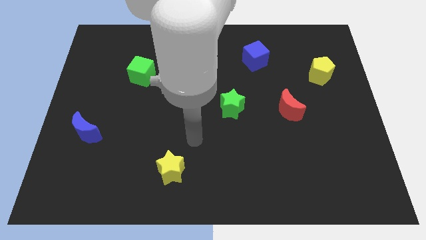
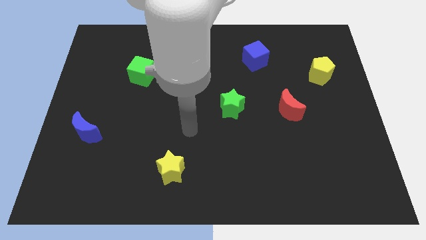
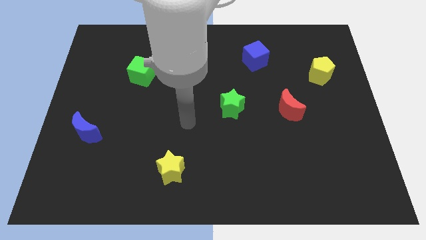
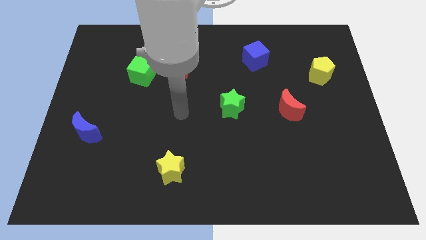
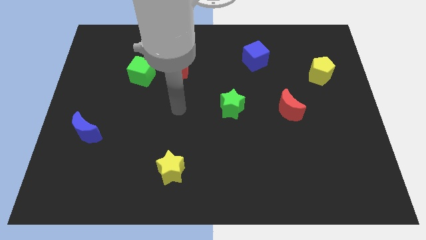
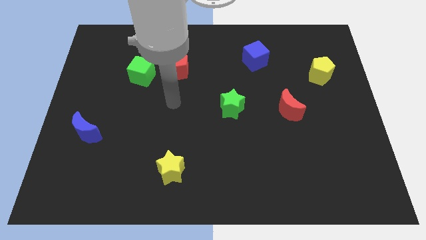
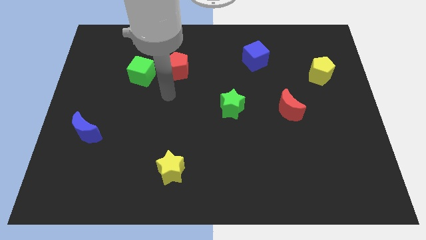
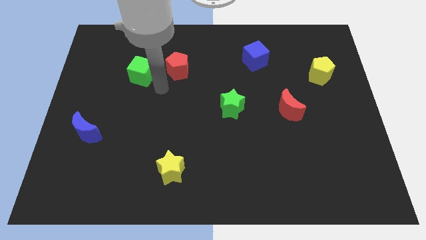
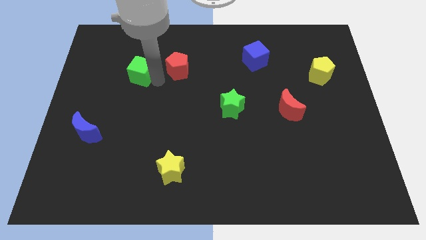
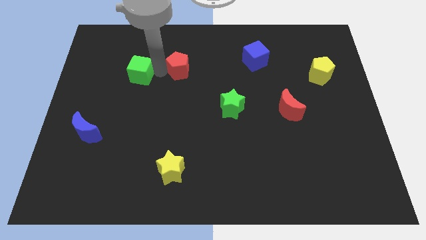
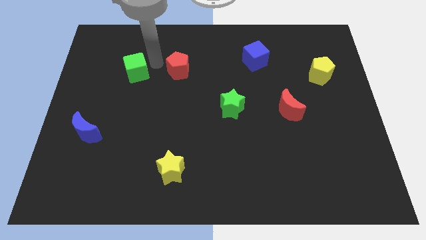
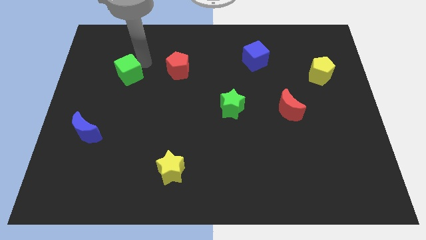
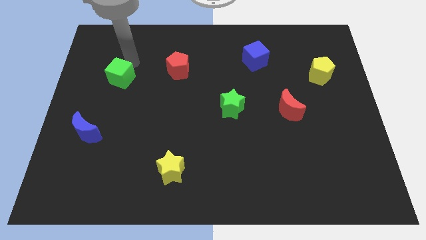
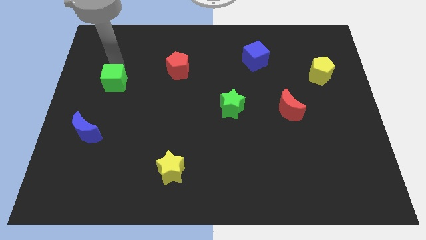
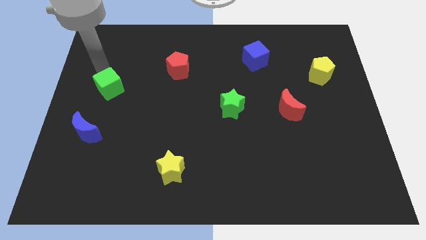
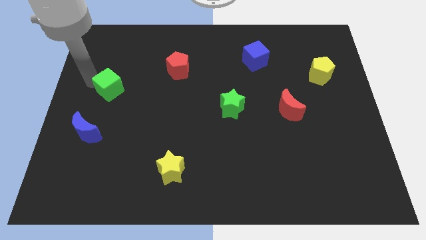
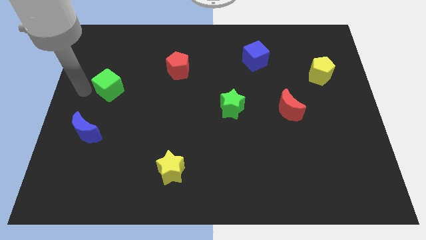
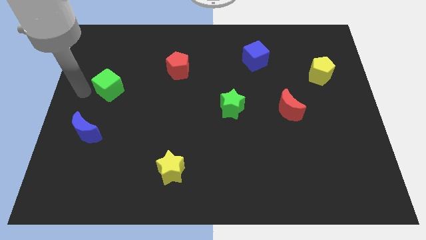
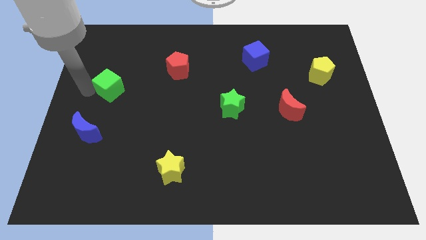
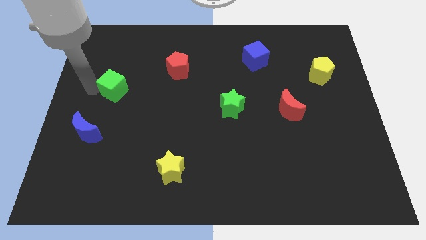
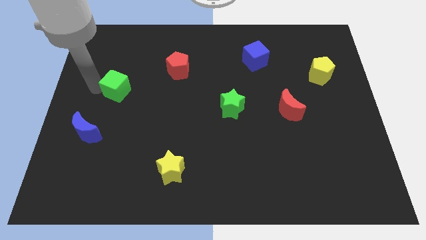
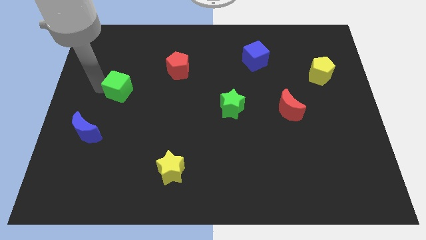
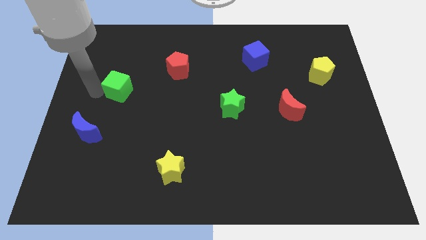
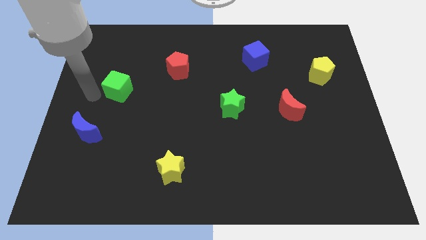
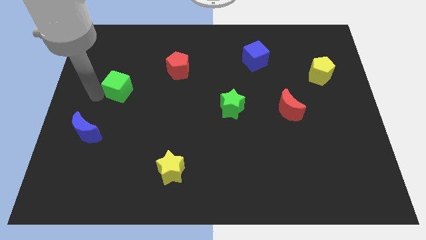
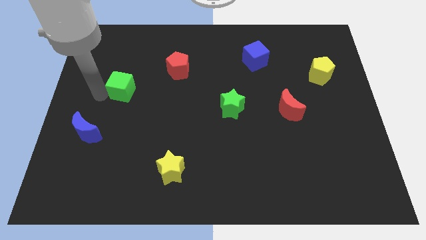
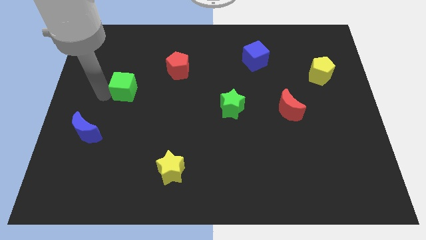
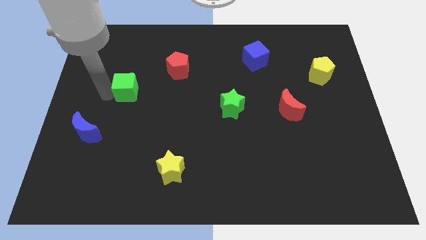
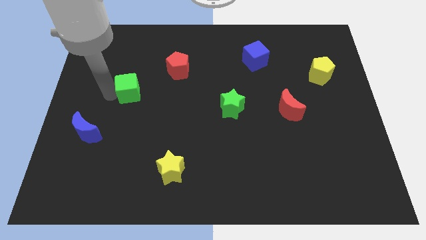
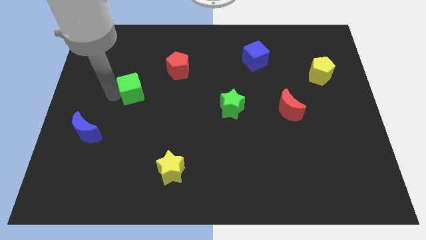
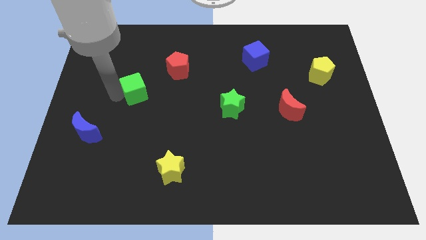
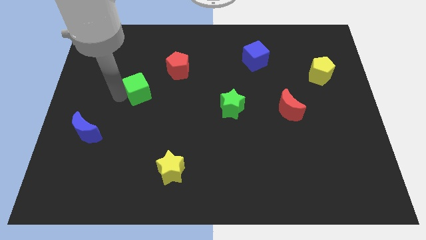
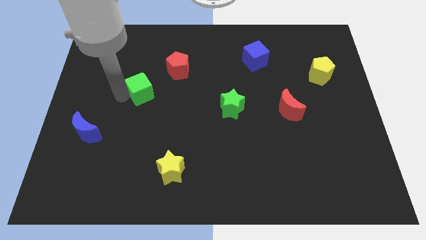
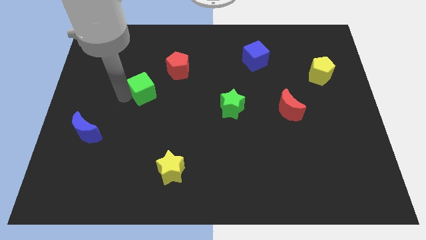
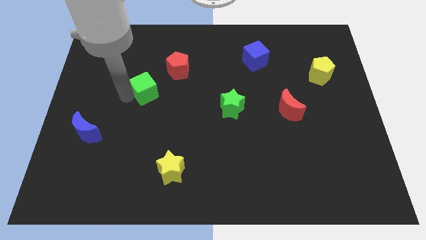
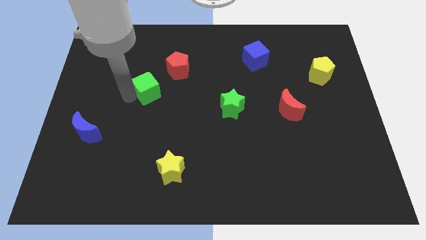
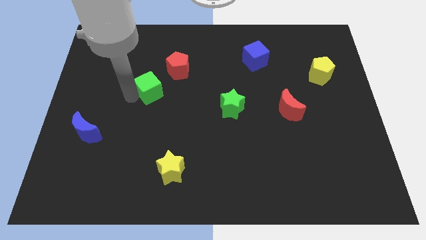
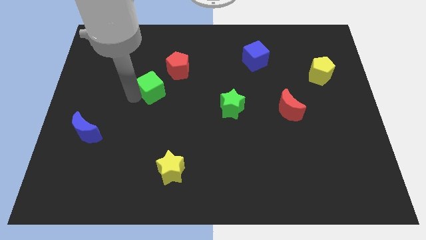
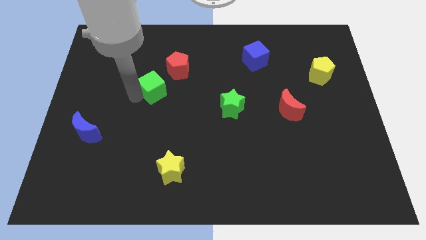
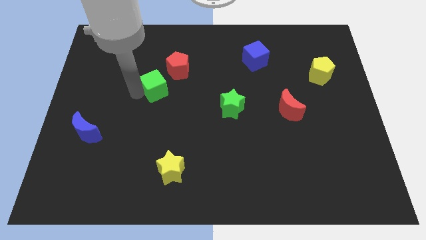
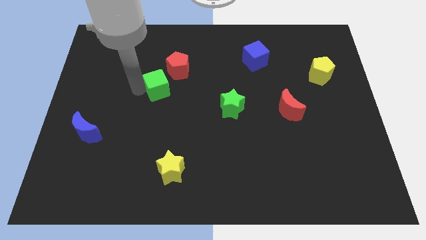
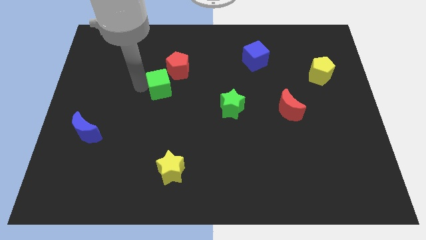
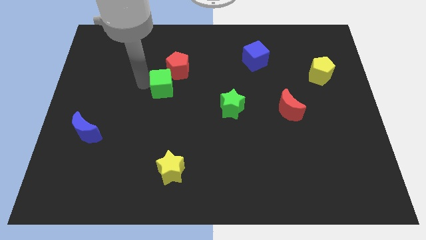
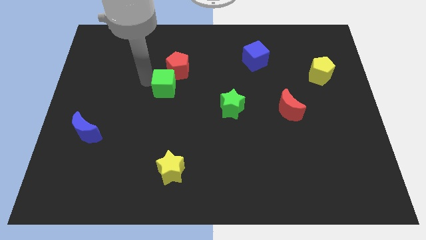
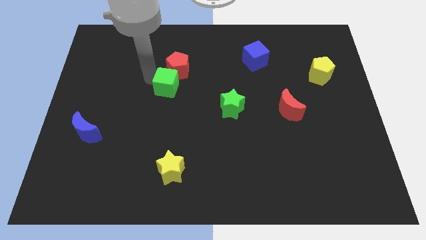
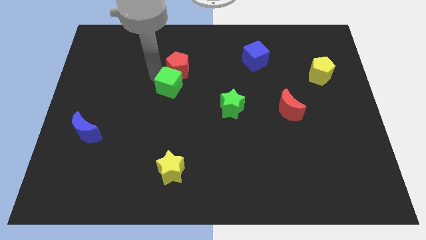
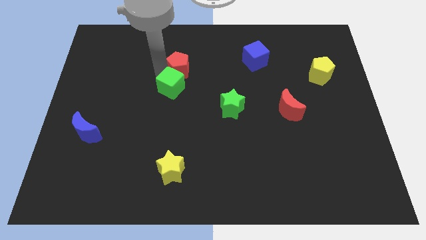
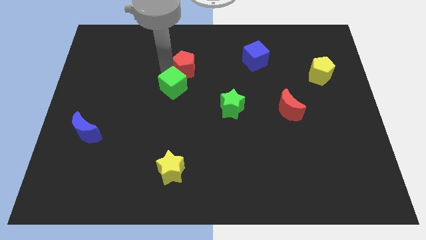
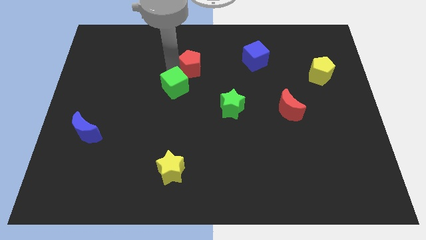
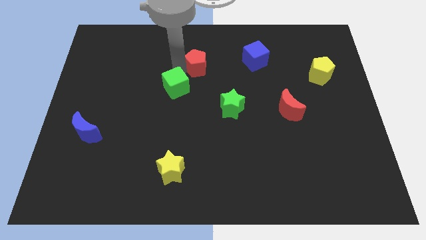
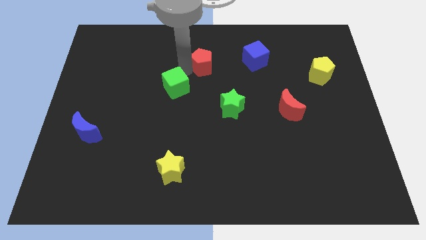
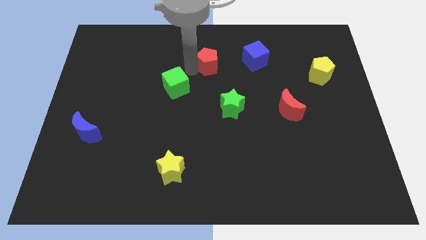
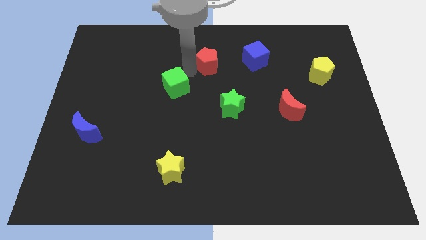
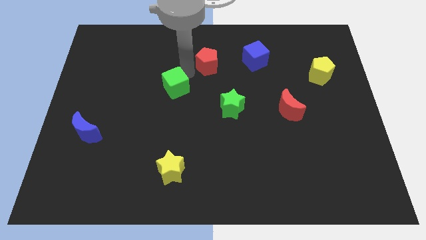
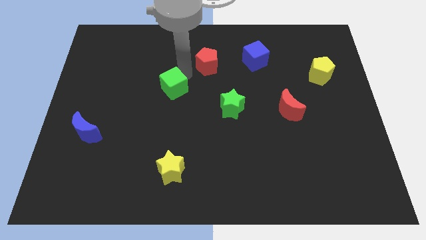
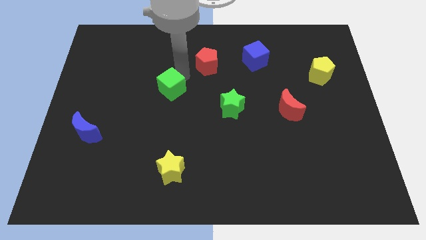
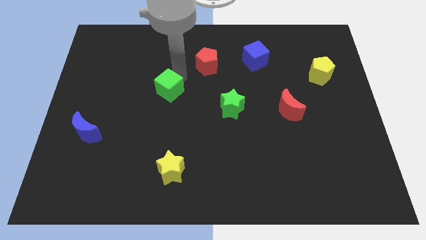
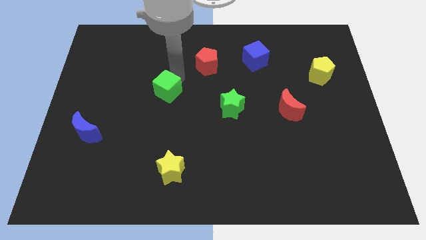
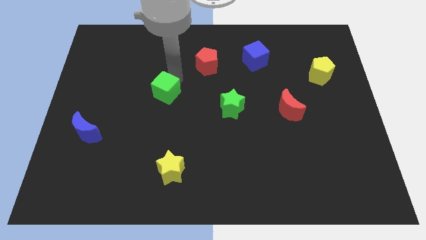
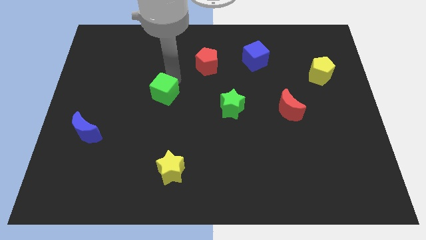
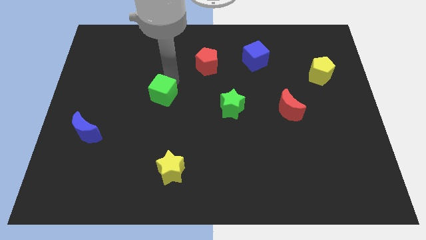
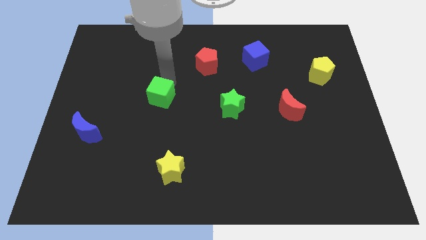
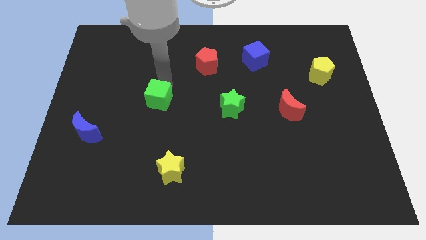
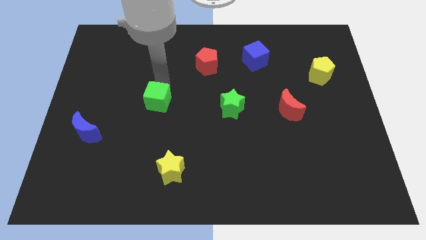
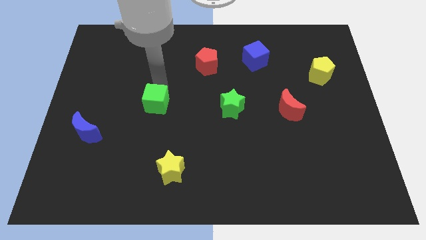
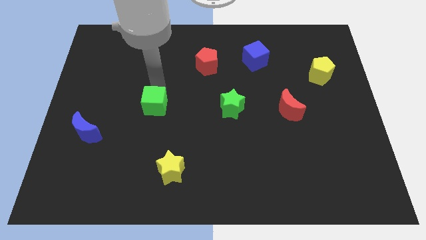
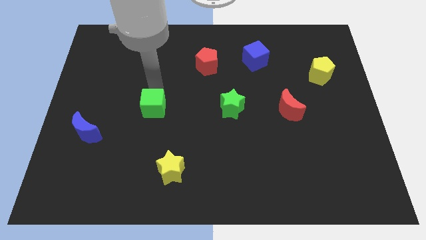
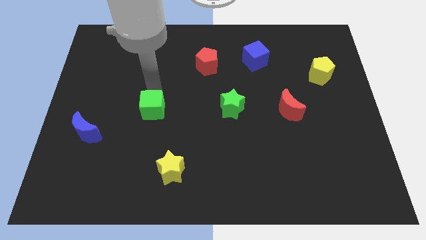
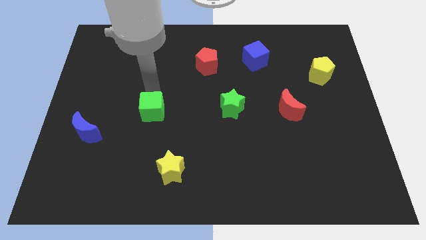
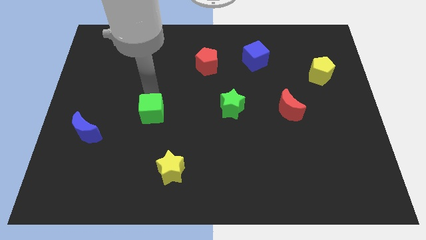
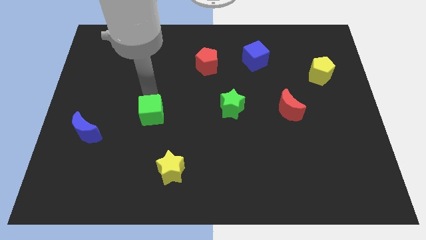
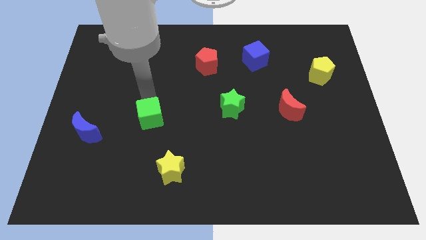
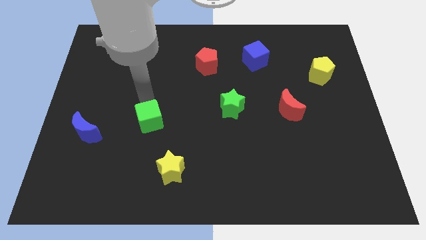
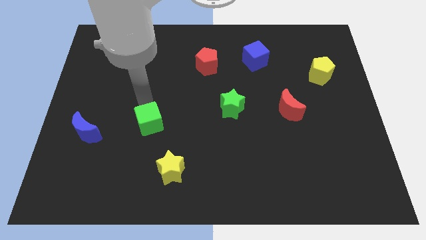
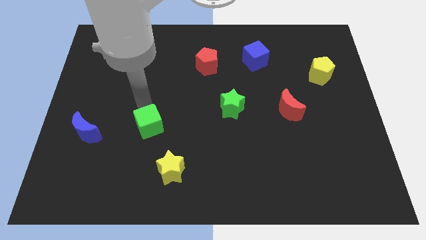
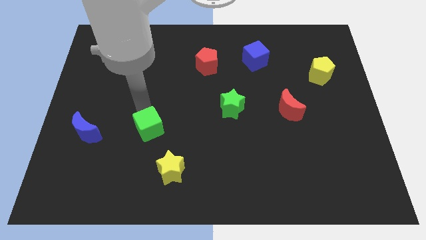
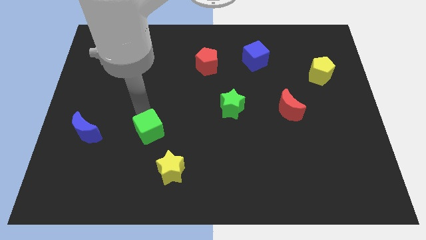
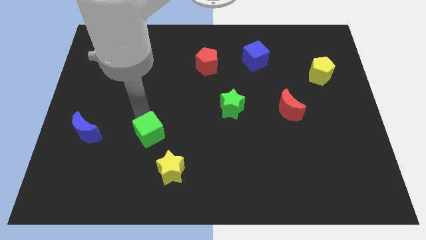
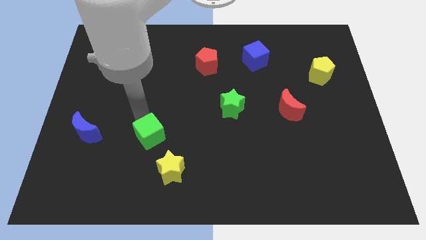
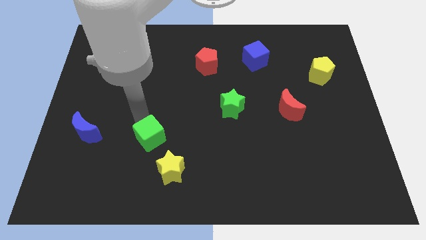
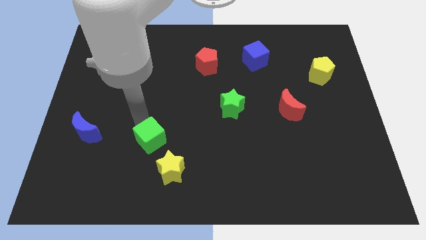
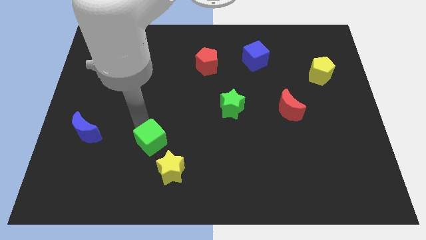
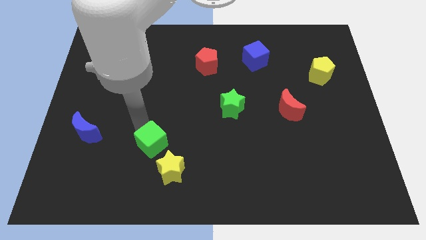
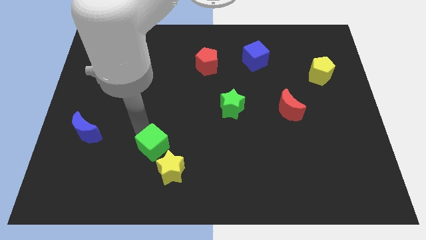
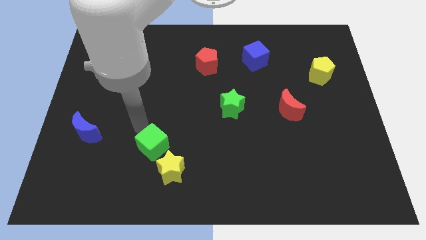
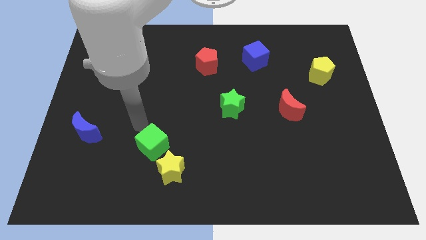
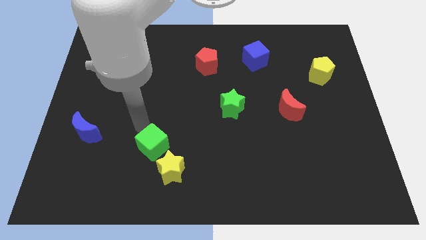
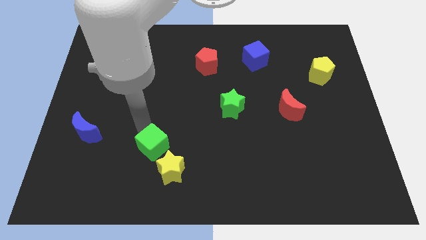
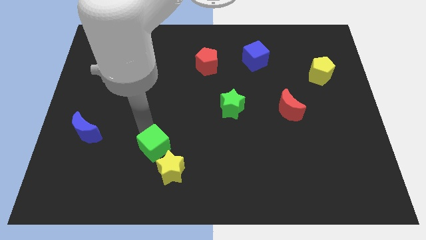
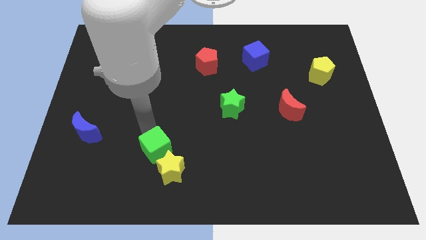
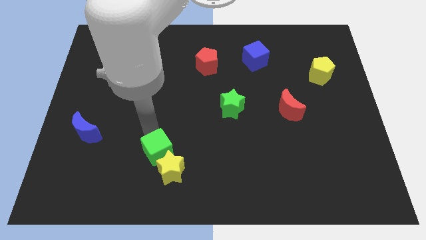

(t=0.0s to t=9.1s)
push the green cube to the yellow star
